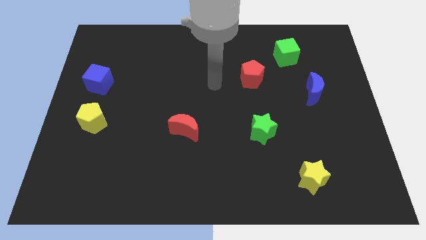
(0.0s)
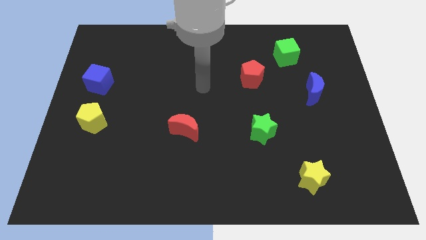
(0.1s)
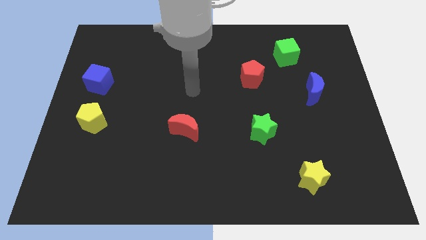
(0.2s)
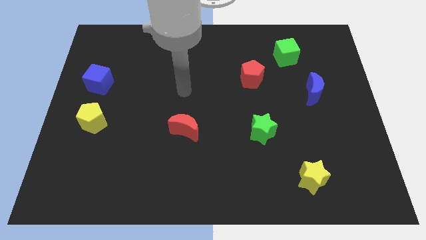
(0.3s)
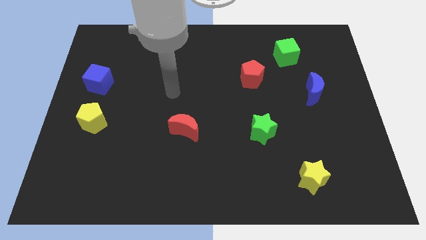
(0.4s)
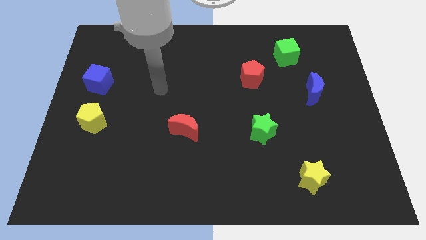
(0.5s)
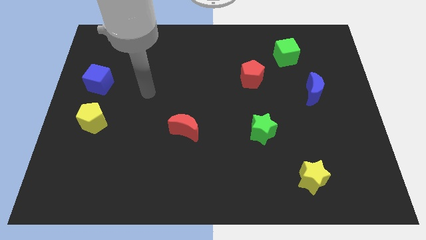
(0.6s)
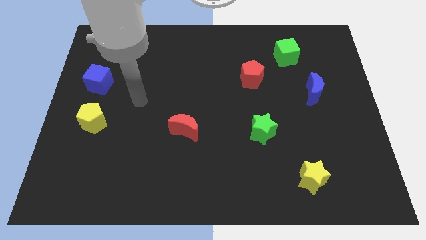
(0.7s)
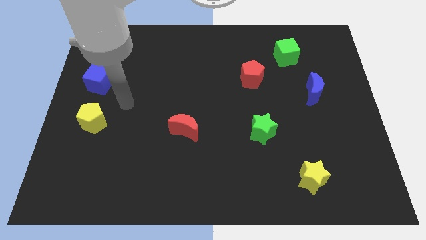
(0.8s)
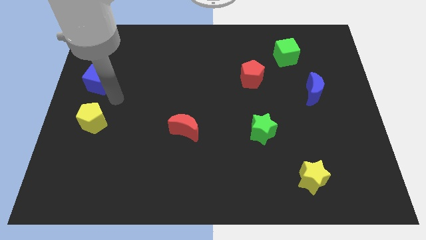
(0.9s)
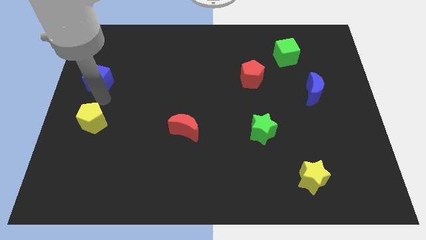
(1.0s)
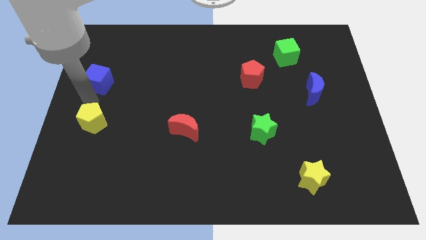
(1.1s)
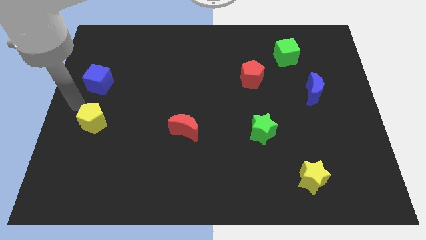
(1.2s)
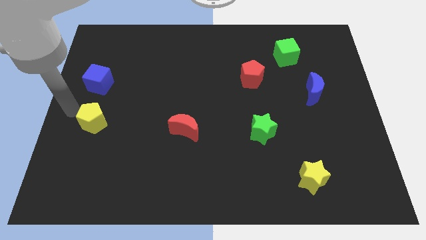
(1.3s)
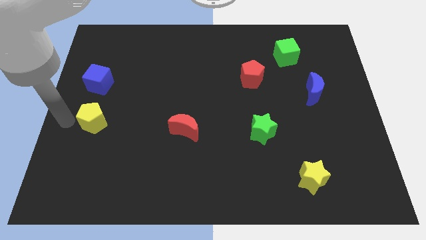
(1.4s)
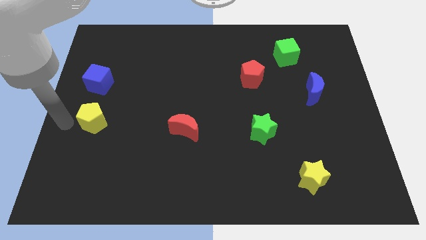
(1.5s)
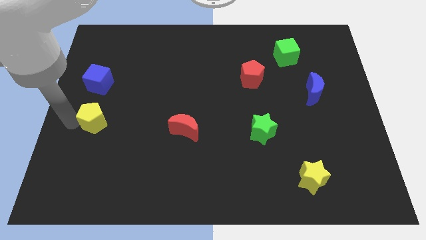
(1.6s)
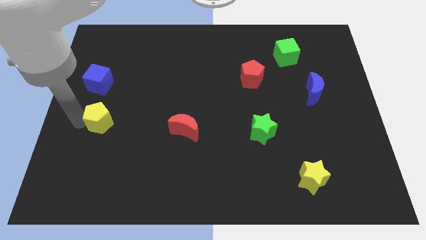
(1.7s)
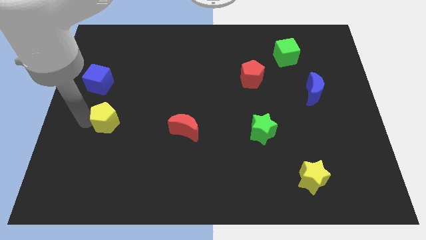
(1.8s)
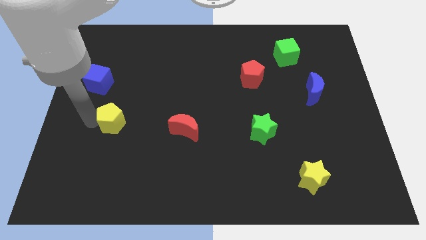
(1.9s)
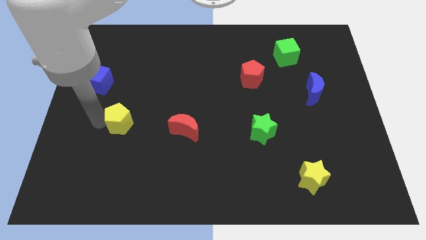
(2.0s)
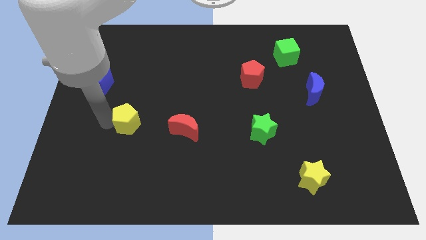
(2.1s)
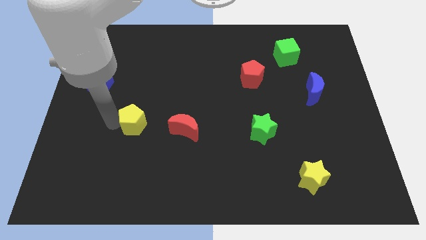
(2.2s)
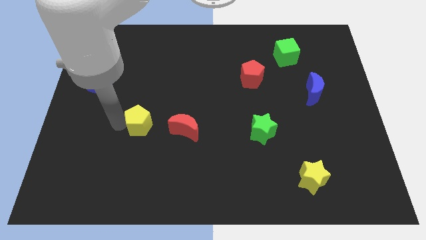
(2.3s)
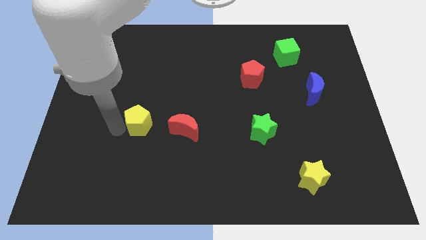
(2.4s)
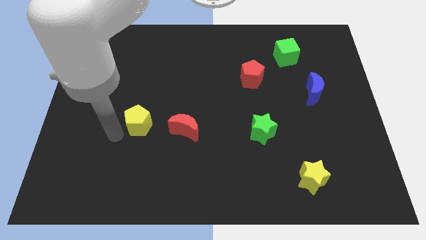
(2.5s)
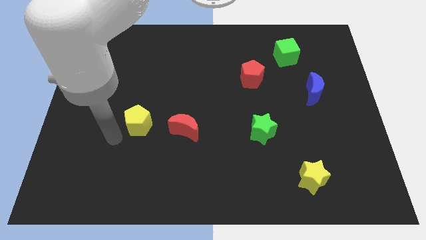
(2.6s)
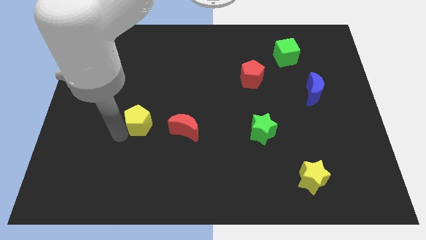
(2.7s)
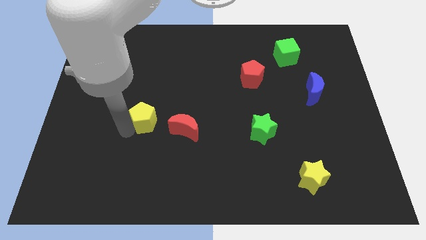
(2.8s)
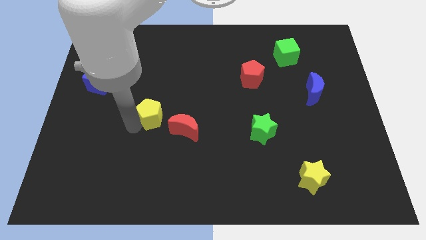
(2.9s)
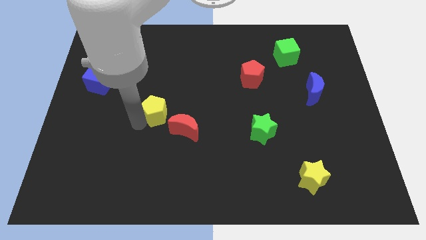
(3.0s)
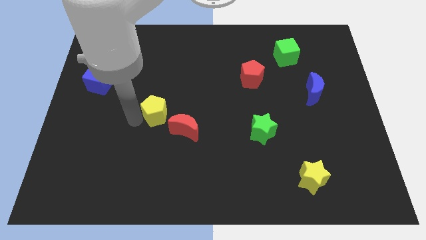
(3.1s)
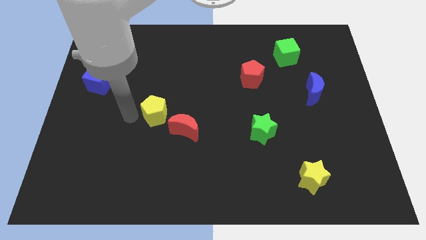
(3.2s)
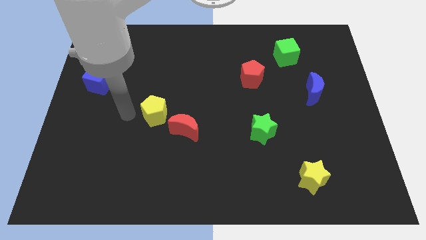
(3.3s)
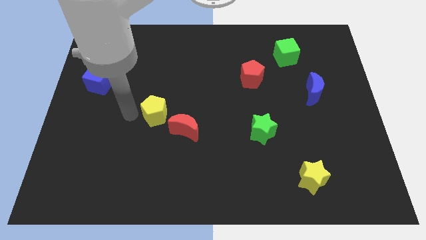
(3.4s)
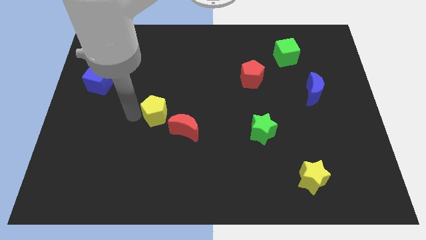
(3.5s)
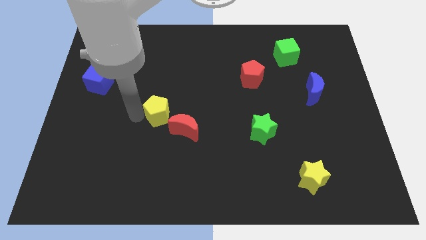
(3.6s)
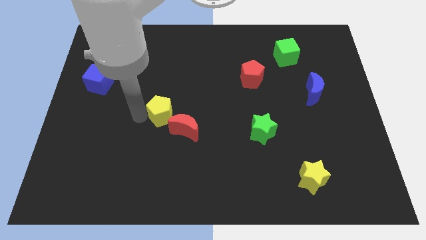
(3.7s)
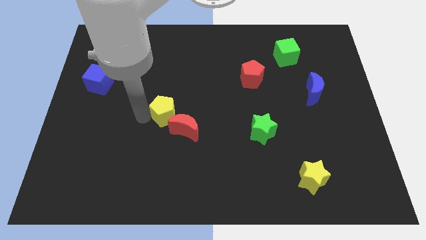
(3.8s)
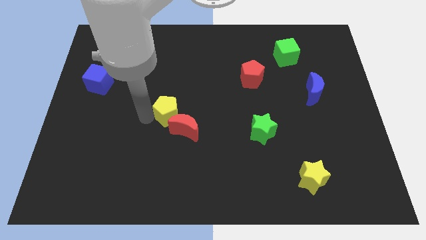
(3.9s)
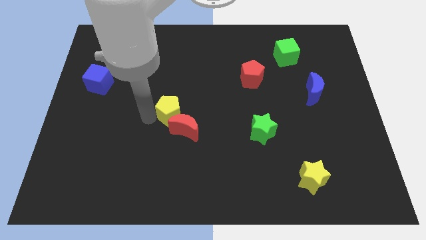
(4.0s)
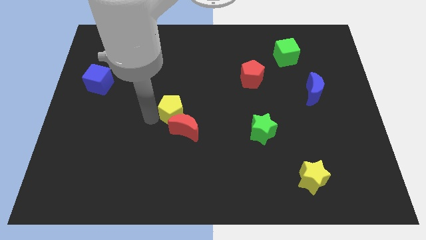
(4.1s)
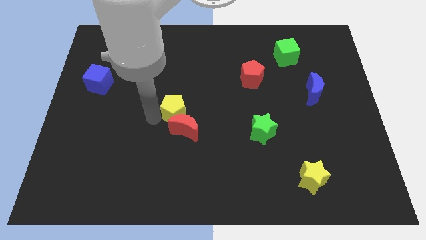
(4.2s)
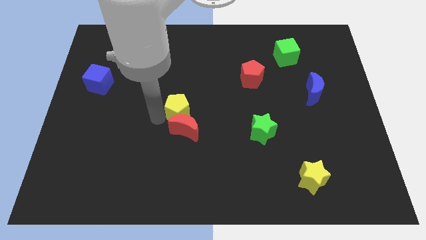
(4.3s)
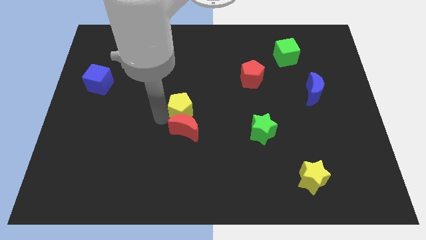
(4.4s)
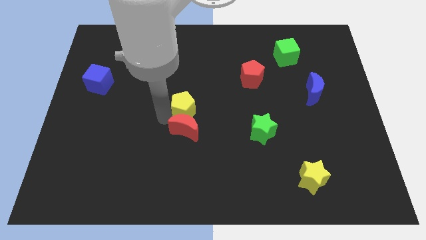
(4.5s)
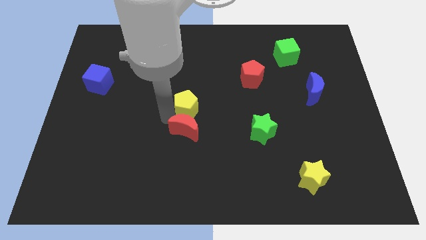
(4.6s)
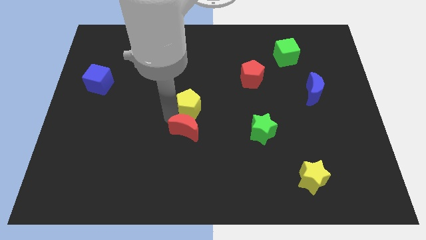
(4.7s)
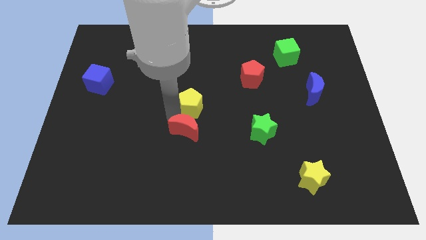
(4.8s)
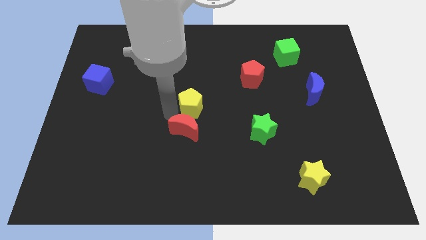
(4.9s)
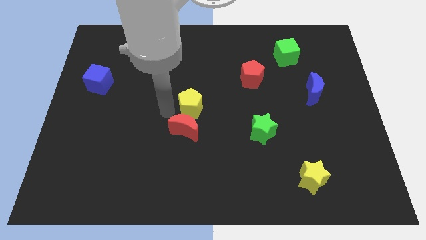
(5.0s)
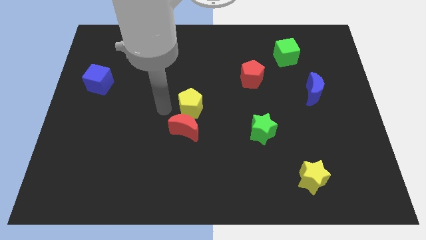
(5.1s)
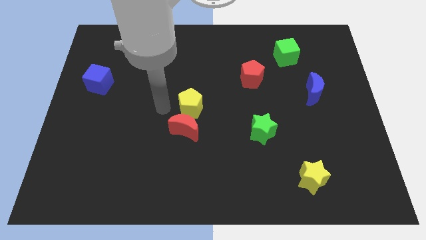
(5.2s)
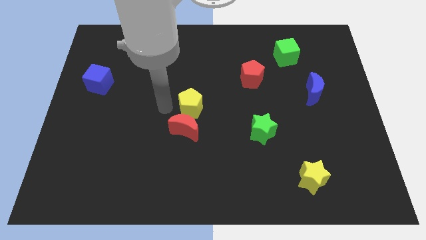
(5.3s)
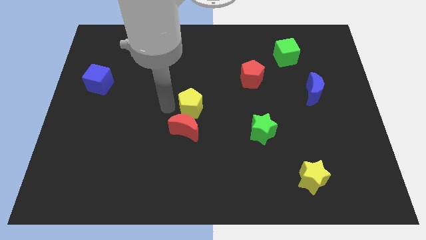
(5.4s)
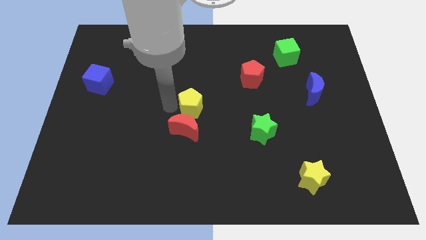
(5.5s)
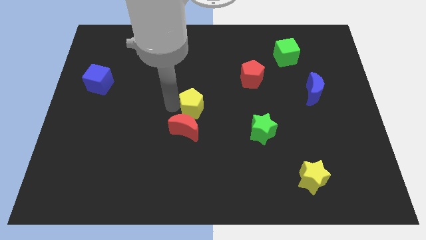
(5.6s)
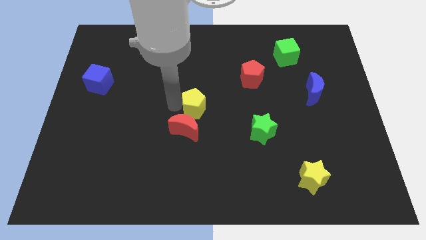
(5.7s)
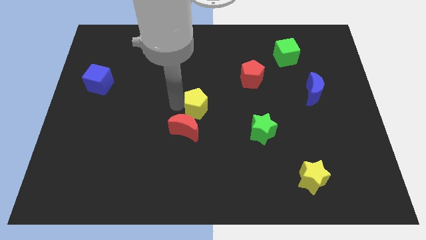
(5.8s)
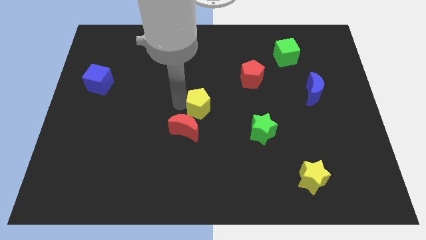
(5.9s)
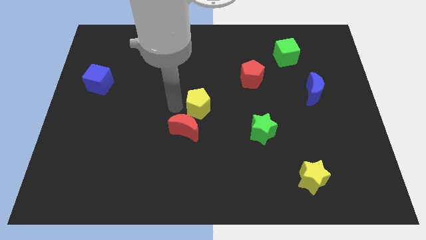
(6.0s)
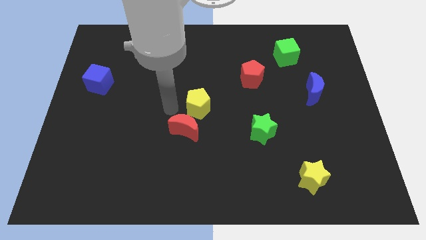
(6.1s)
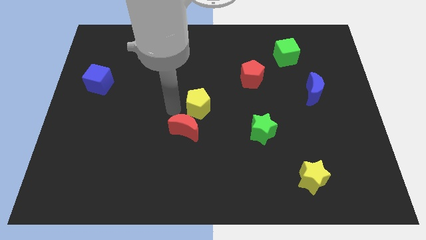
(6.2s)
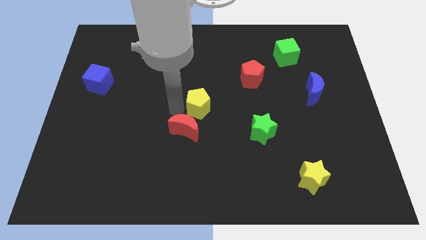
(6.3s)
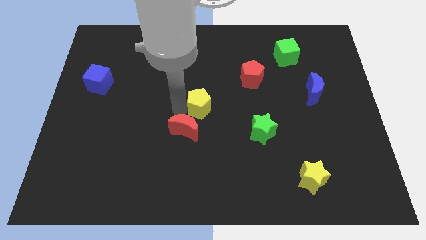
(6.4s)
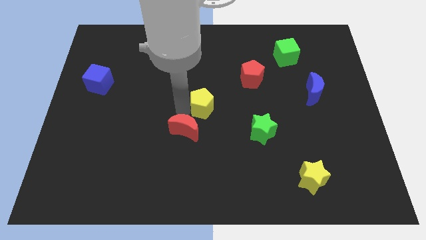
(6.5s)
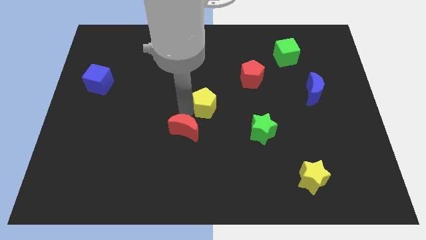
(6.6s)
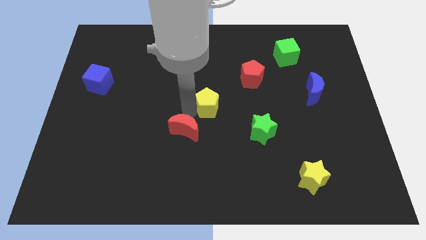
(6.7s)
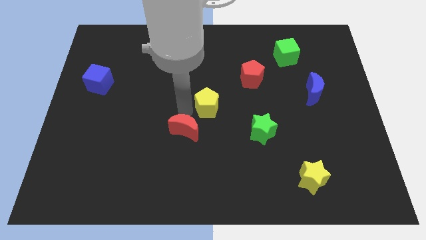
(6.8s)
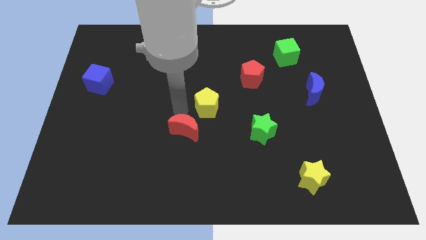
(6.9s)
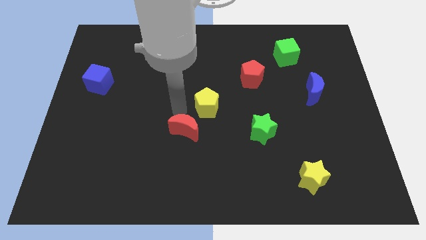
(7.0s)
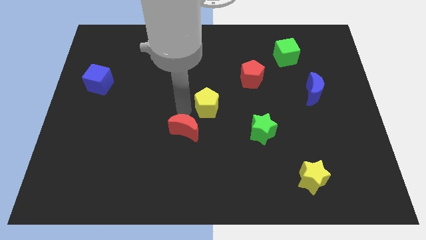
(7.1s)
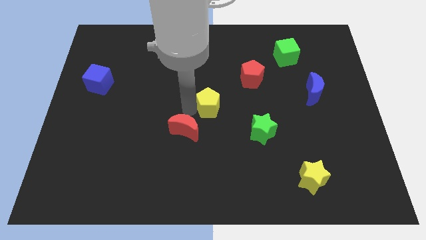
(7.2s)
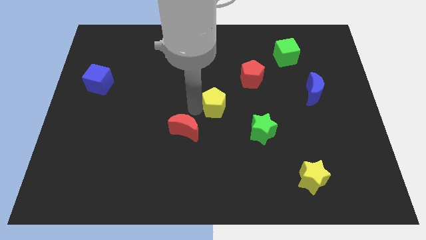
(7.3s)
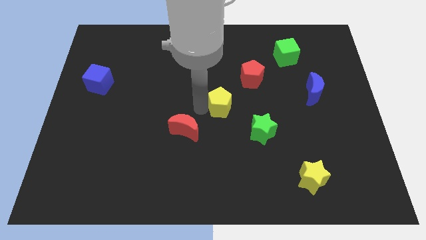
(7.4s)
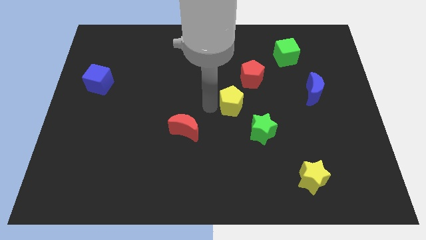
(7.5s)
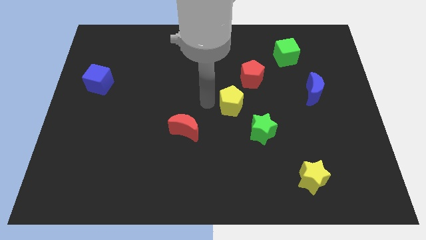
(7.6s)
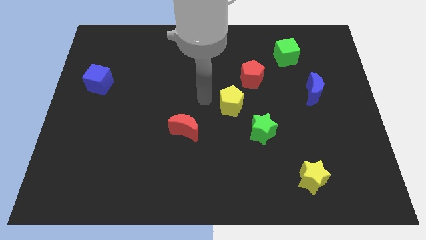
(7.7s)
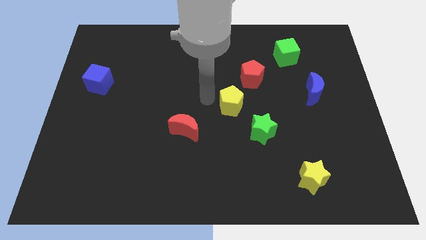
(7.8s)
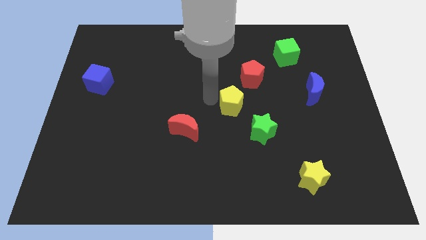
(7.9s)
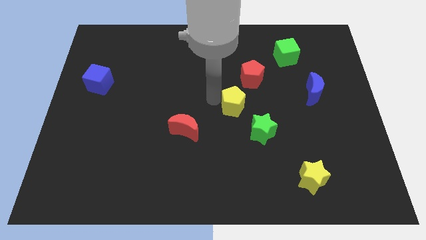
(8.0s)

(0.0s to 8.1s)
slide the yellow pentagon to the bottom of the red pentagon
